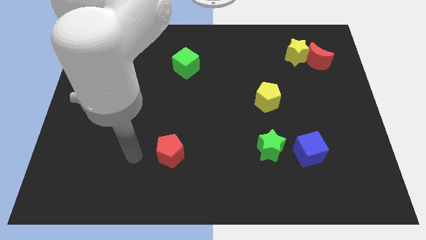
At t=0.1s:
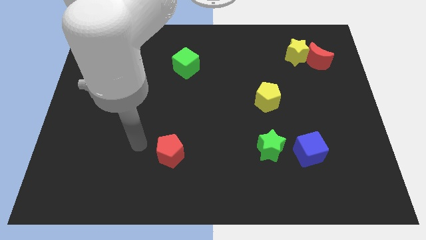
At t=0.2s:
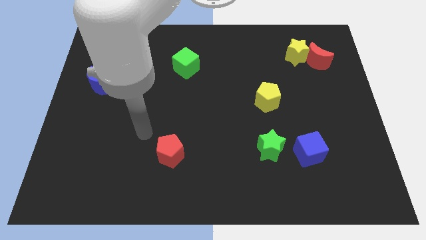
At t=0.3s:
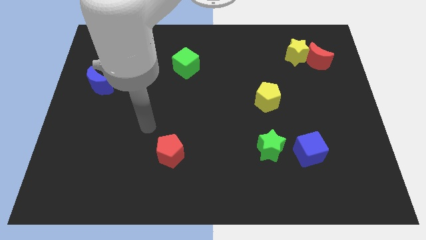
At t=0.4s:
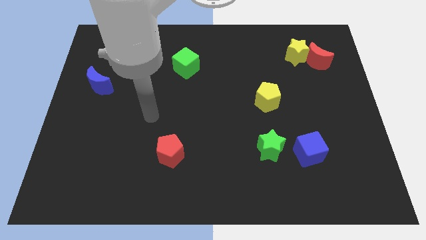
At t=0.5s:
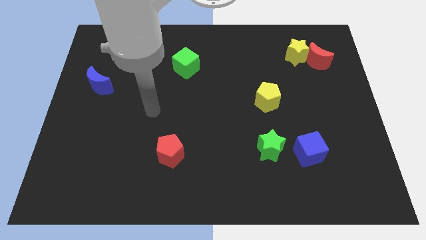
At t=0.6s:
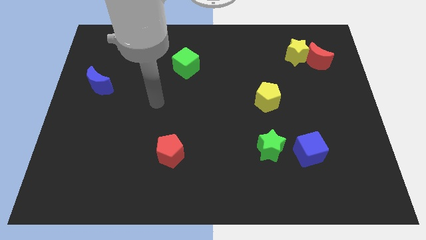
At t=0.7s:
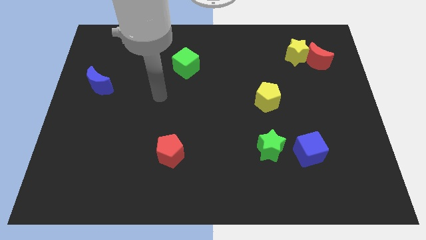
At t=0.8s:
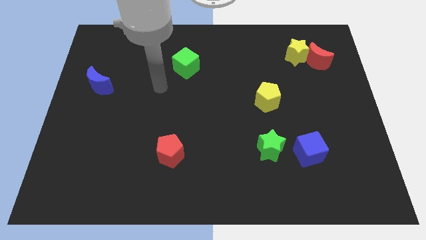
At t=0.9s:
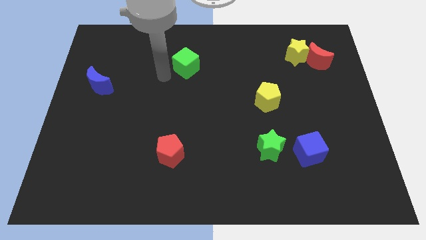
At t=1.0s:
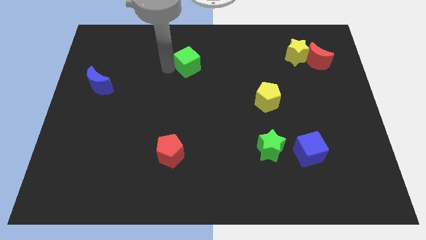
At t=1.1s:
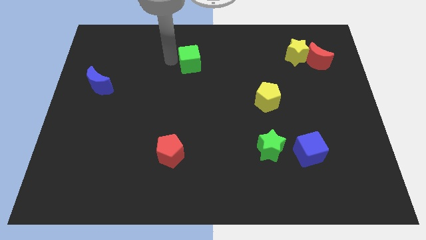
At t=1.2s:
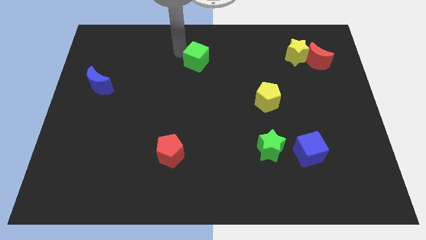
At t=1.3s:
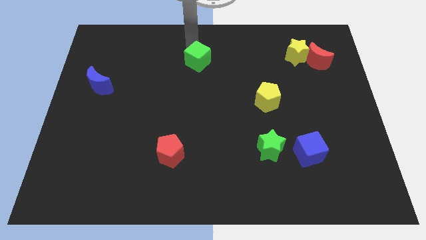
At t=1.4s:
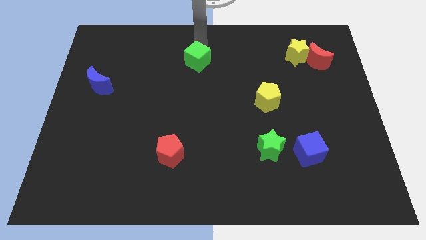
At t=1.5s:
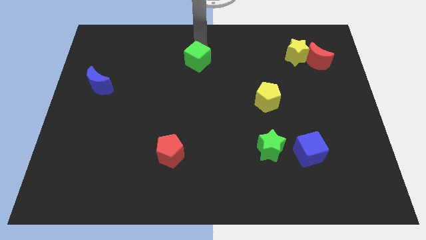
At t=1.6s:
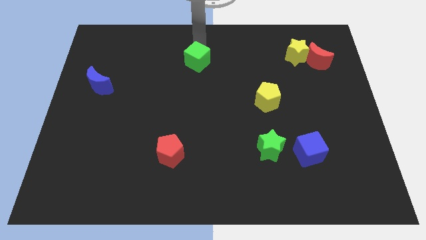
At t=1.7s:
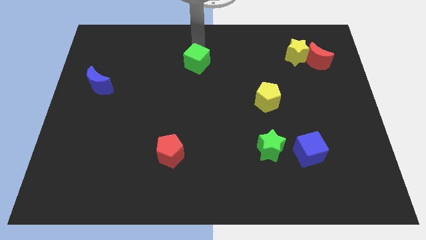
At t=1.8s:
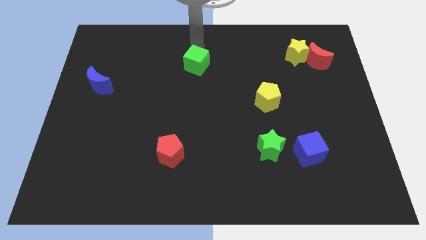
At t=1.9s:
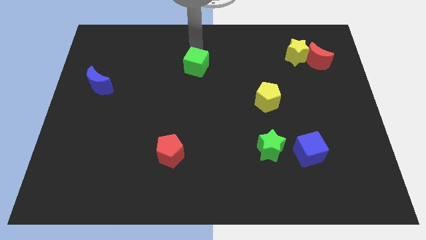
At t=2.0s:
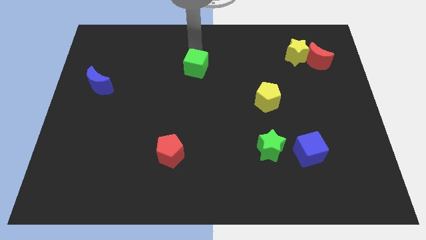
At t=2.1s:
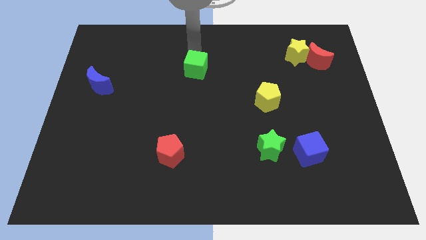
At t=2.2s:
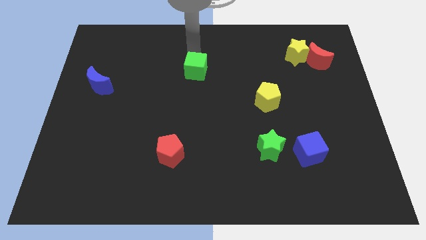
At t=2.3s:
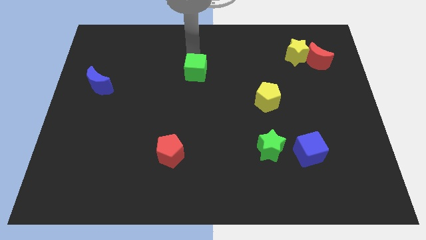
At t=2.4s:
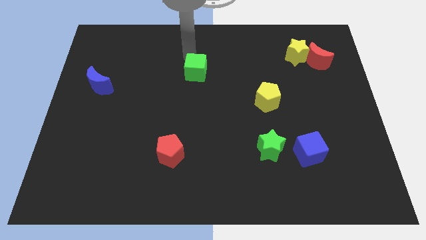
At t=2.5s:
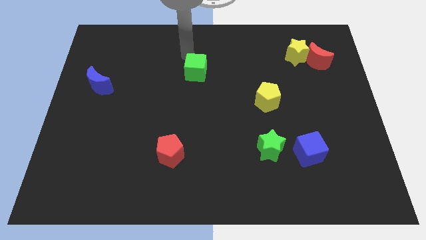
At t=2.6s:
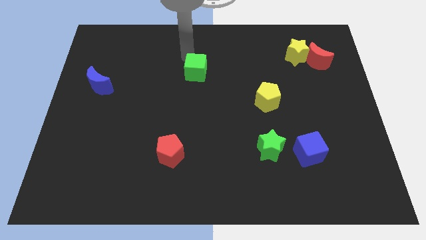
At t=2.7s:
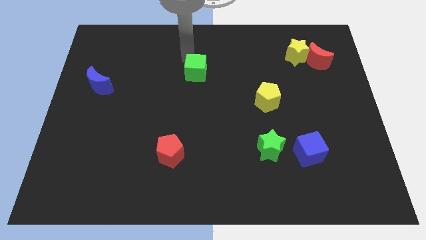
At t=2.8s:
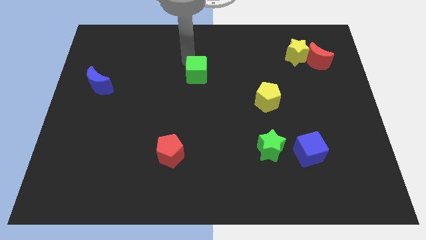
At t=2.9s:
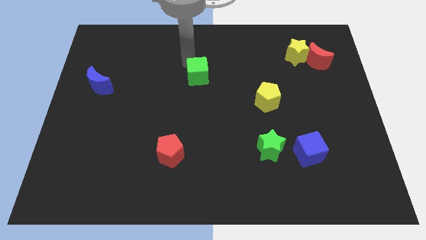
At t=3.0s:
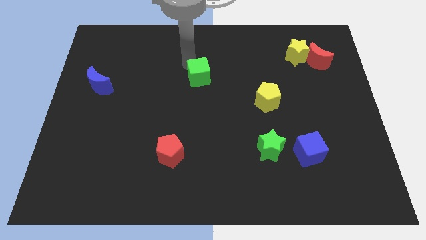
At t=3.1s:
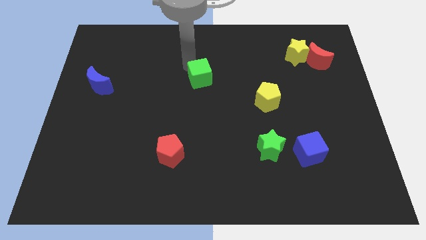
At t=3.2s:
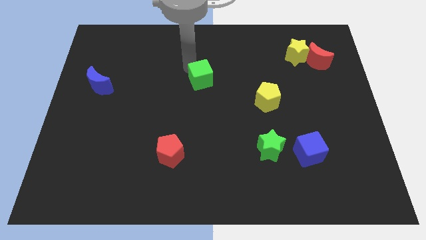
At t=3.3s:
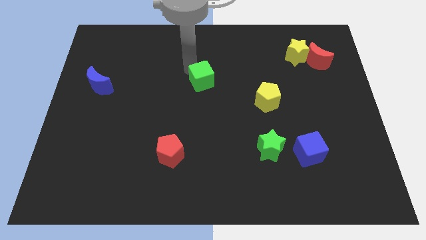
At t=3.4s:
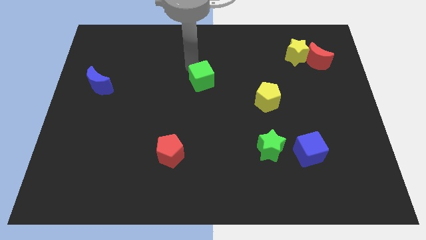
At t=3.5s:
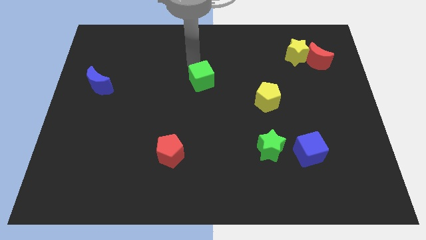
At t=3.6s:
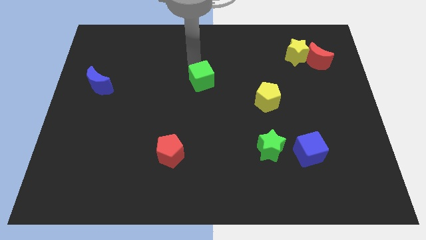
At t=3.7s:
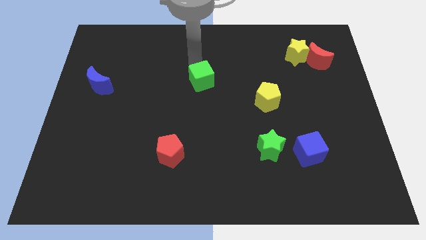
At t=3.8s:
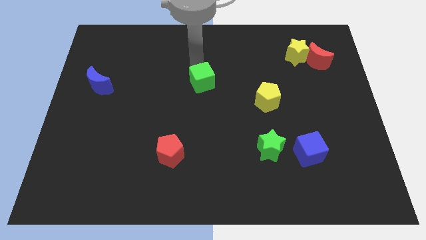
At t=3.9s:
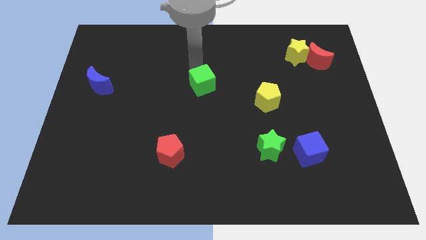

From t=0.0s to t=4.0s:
push the green cube down and then to the right a bit

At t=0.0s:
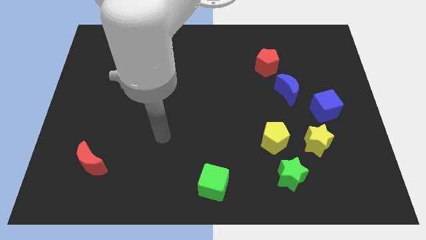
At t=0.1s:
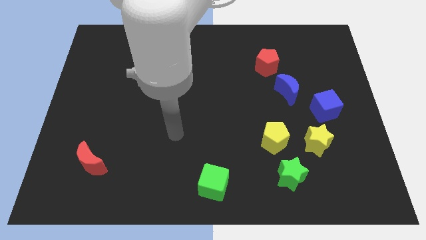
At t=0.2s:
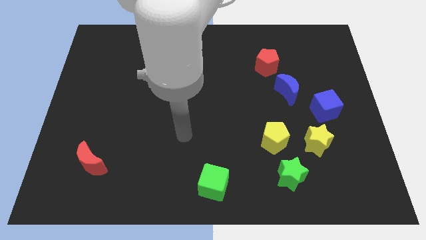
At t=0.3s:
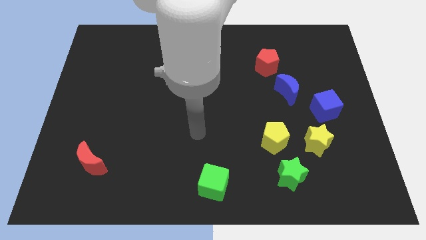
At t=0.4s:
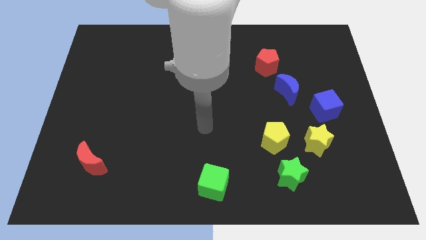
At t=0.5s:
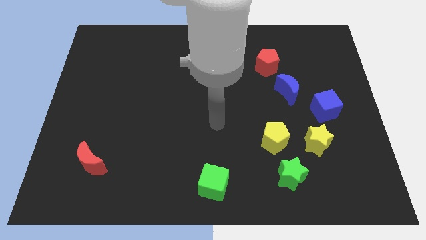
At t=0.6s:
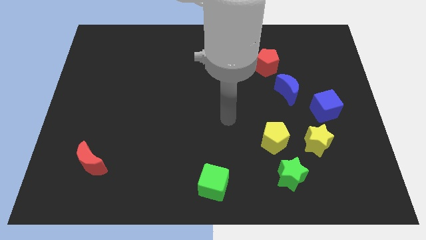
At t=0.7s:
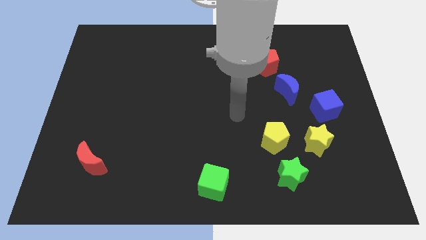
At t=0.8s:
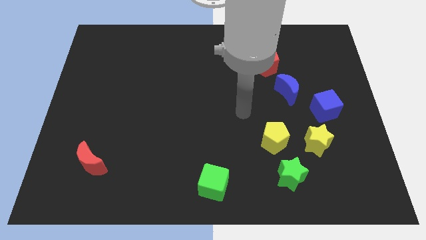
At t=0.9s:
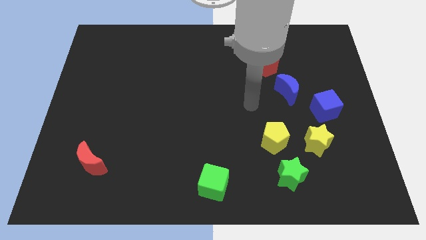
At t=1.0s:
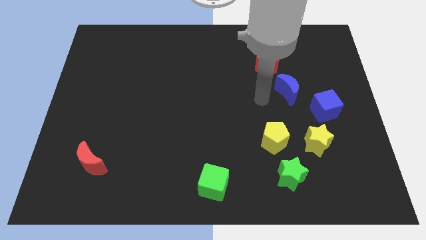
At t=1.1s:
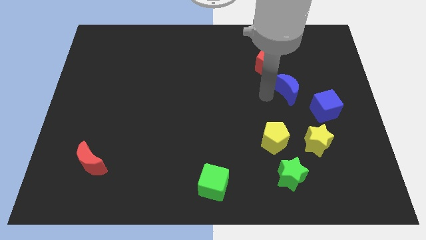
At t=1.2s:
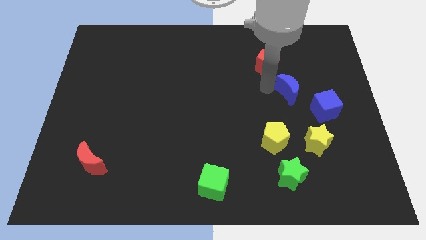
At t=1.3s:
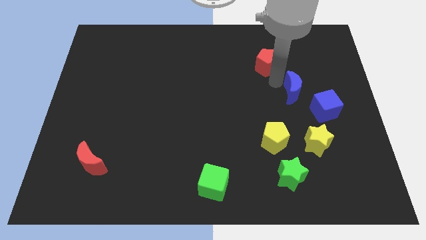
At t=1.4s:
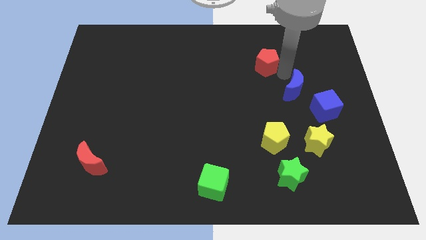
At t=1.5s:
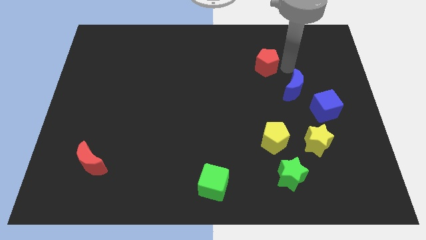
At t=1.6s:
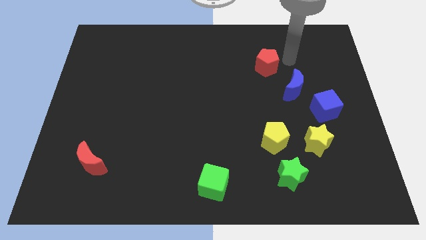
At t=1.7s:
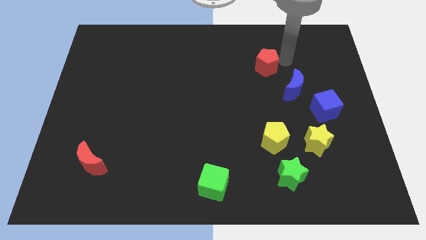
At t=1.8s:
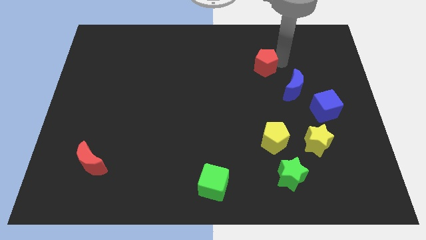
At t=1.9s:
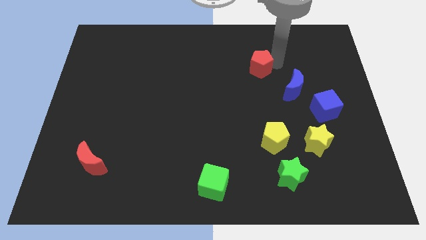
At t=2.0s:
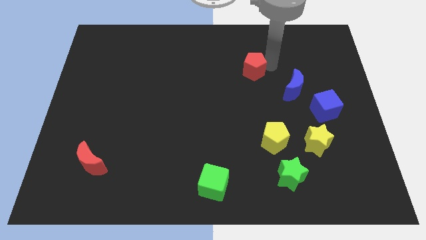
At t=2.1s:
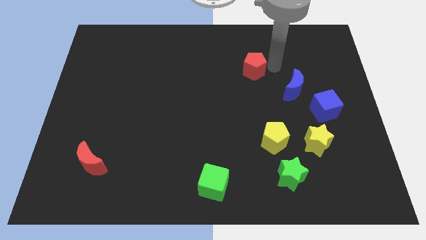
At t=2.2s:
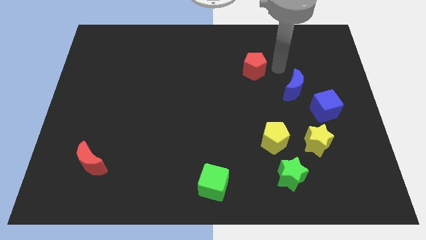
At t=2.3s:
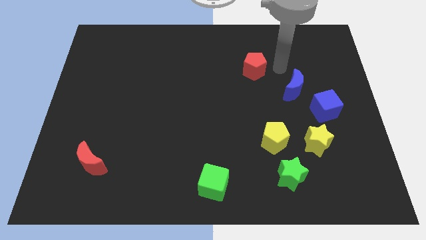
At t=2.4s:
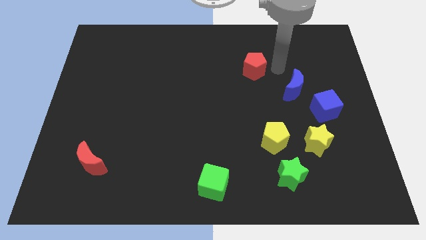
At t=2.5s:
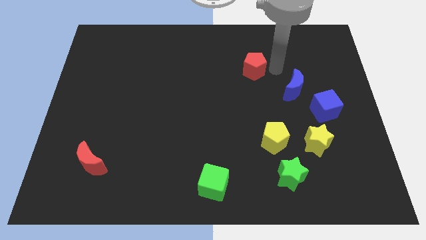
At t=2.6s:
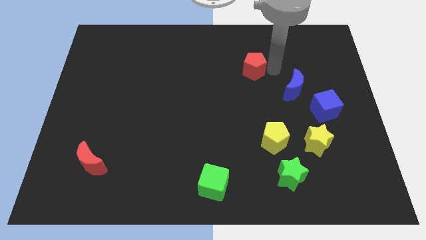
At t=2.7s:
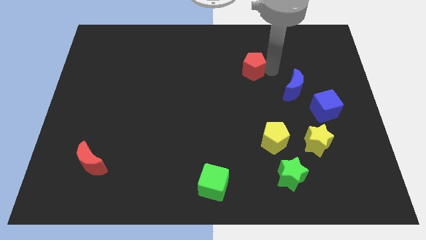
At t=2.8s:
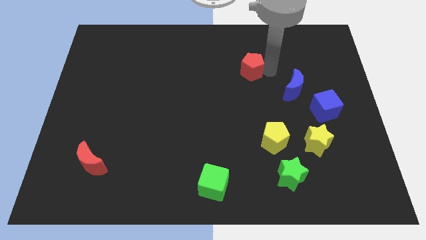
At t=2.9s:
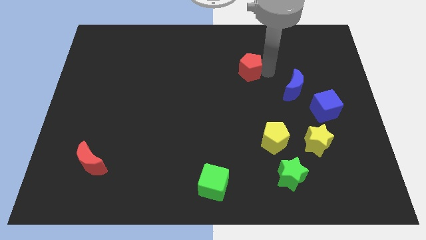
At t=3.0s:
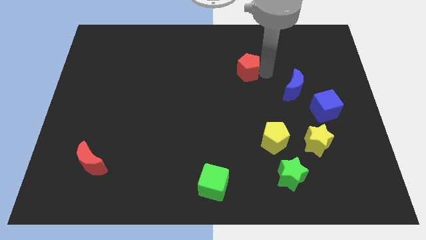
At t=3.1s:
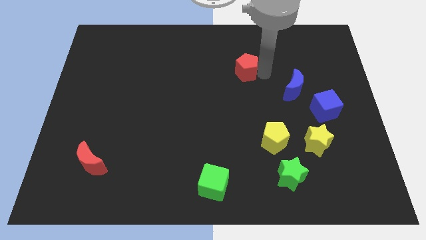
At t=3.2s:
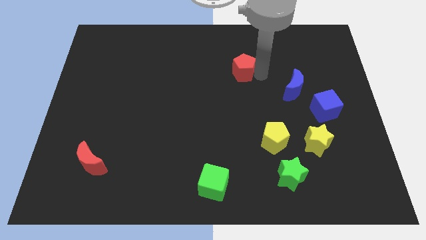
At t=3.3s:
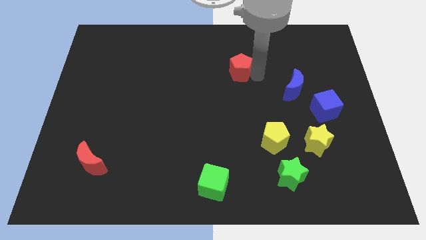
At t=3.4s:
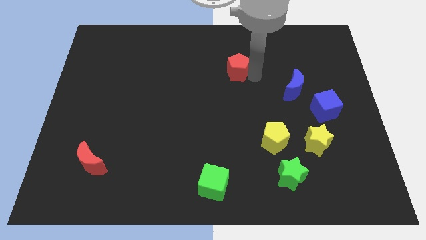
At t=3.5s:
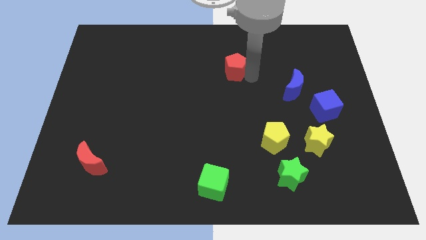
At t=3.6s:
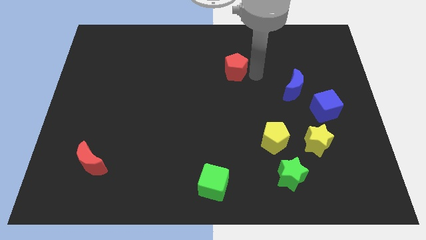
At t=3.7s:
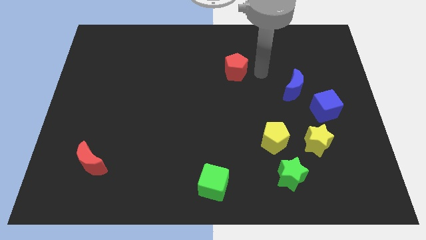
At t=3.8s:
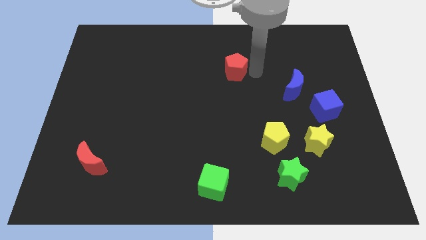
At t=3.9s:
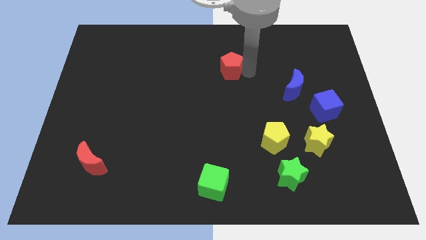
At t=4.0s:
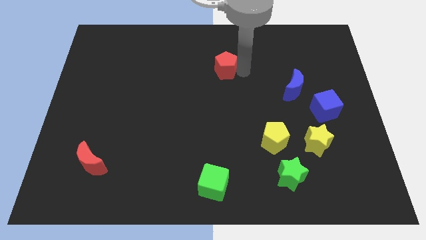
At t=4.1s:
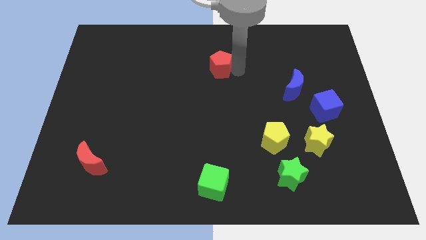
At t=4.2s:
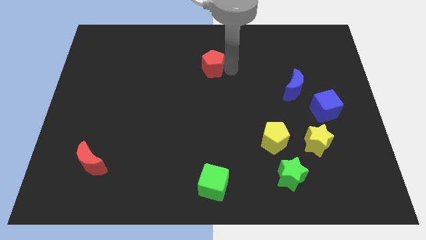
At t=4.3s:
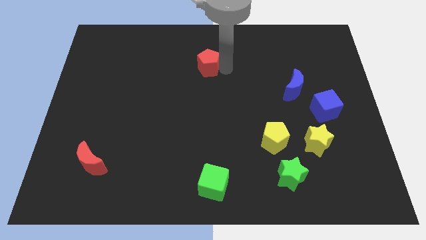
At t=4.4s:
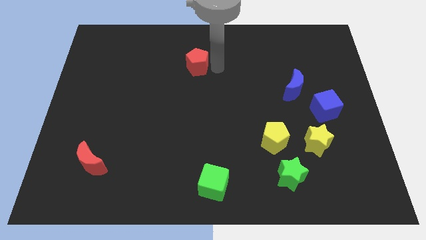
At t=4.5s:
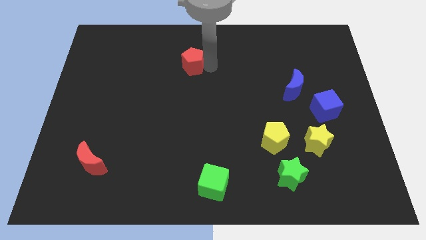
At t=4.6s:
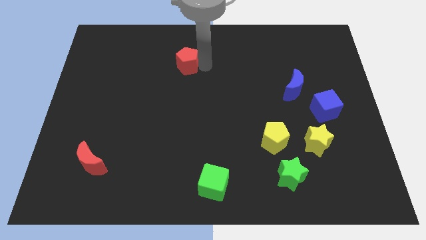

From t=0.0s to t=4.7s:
move the red pentagon left
